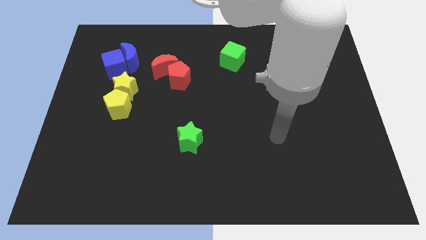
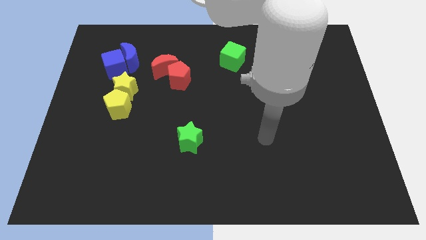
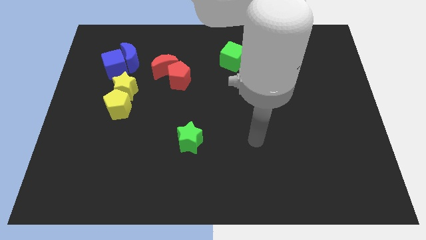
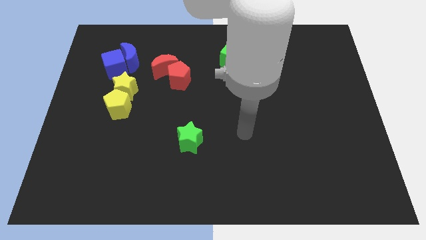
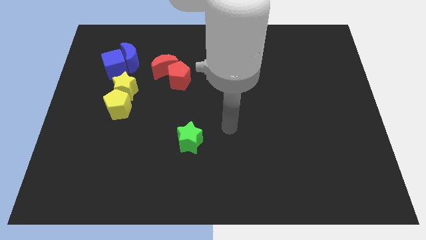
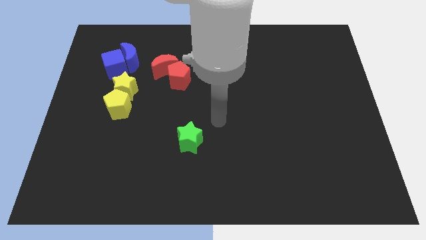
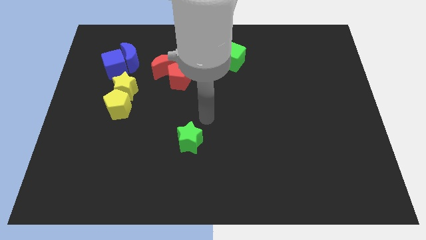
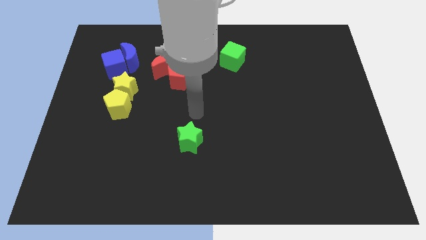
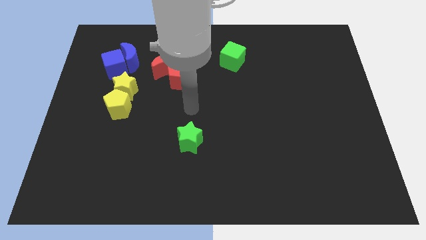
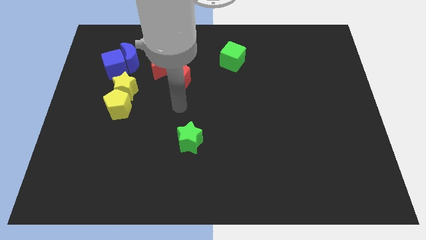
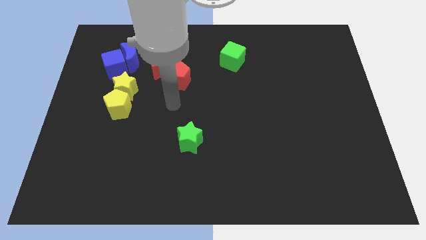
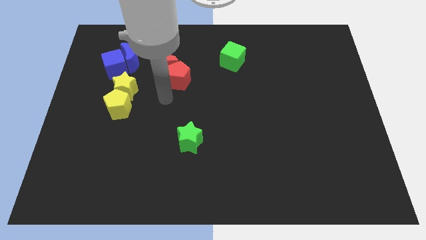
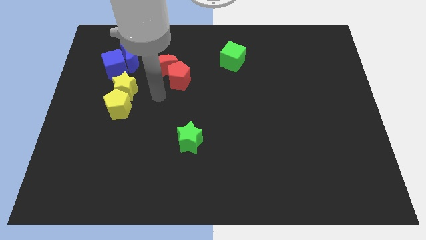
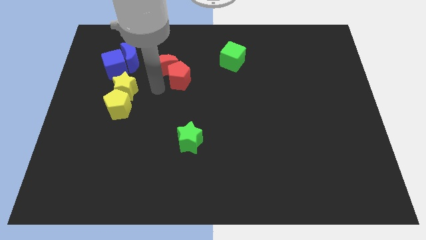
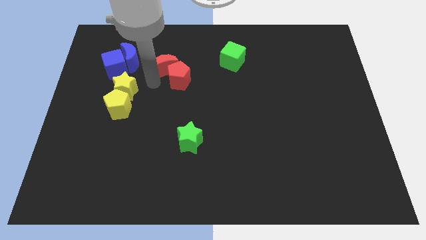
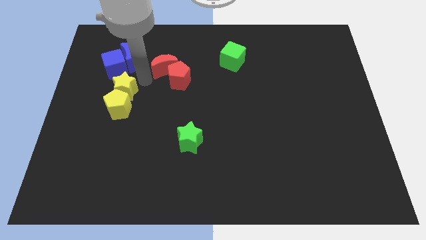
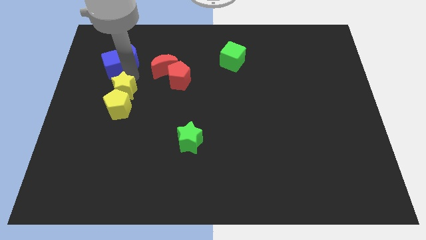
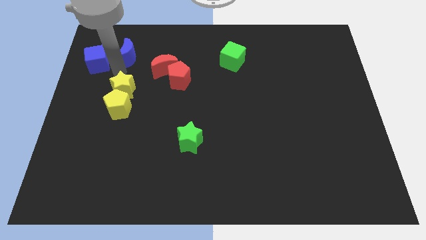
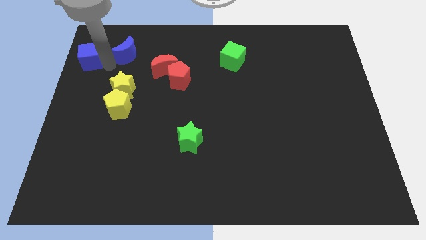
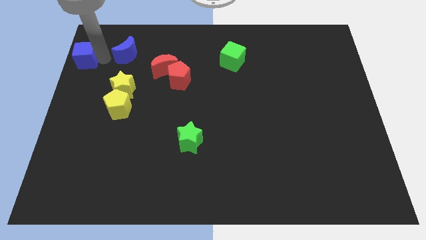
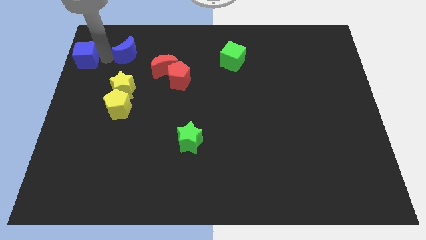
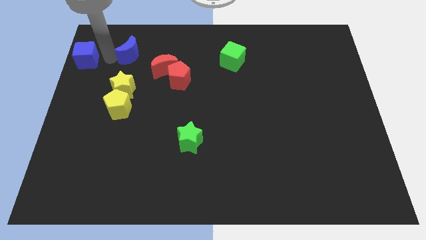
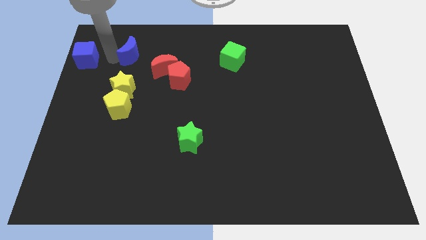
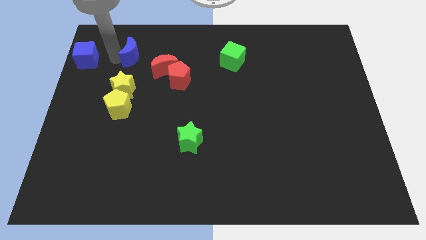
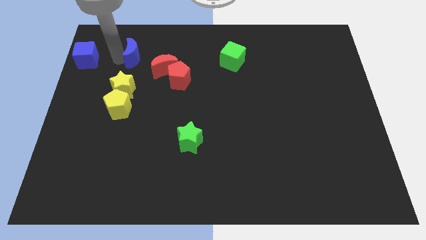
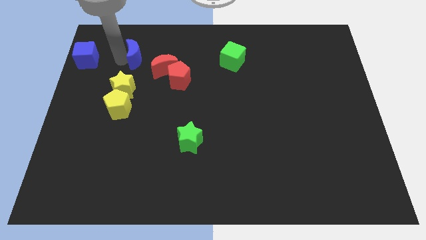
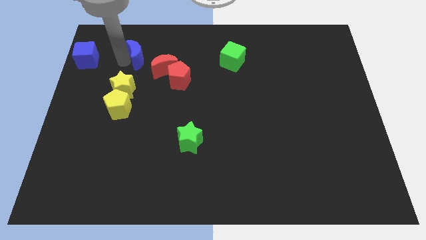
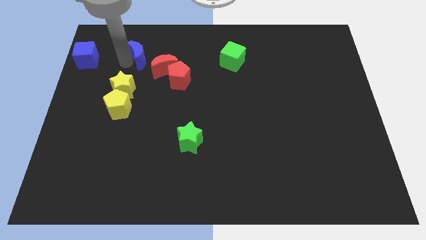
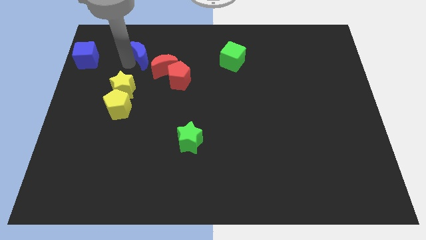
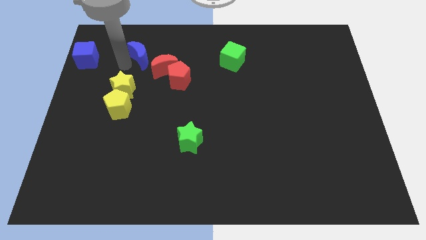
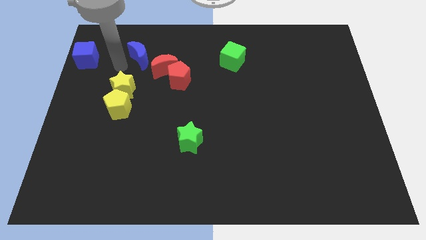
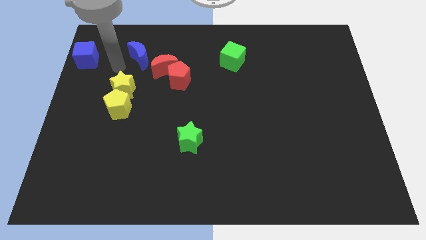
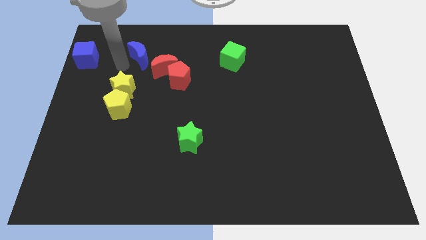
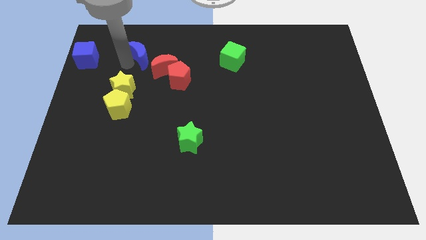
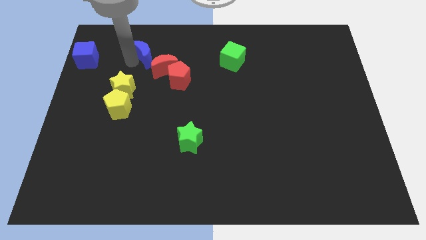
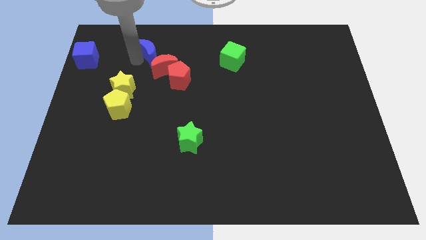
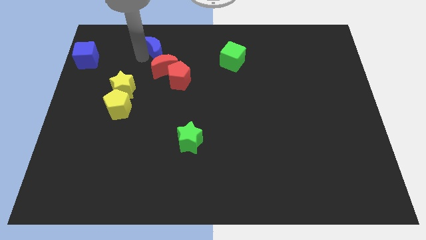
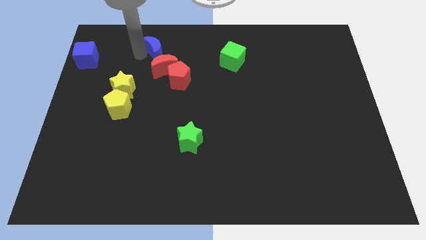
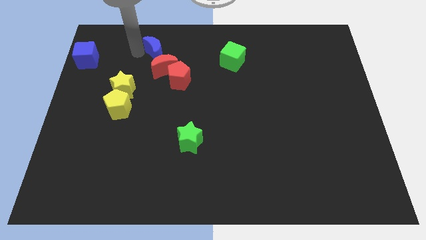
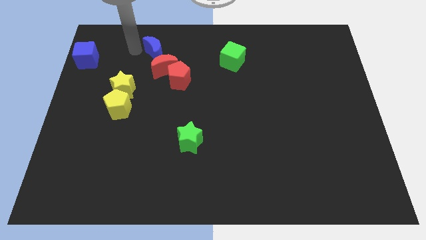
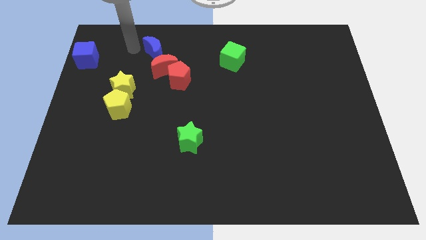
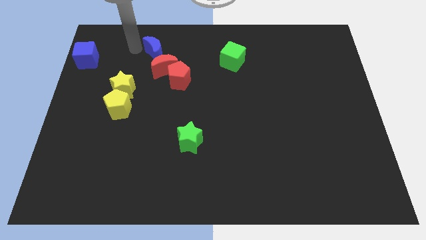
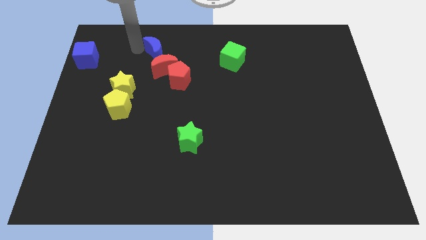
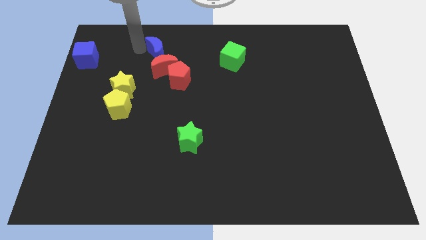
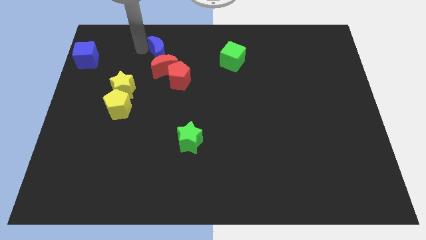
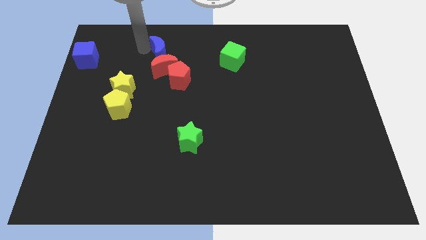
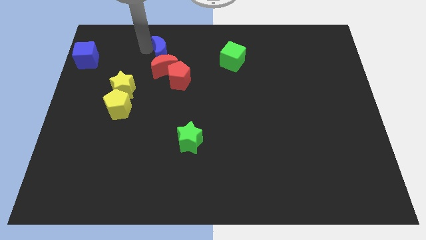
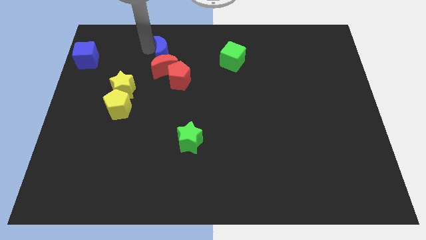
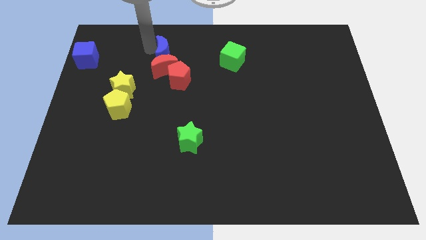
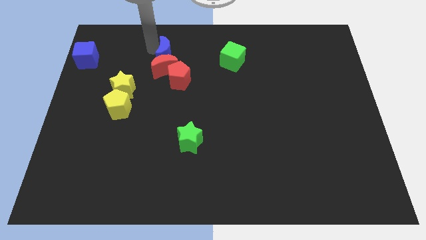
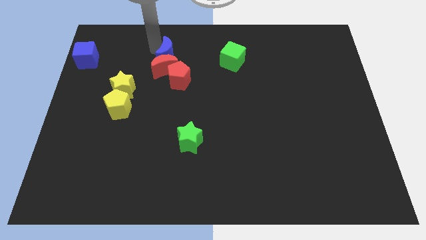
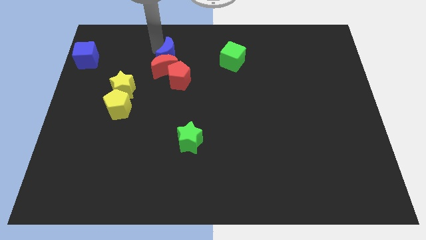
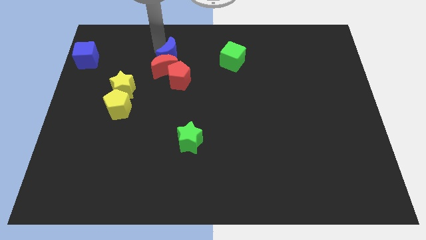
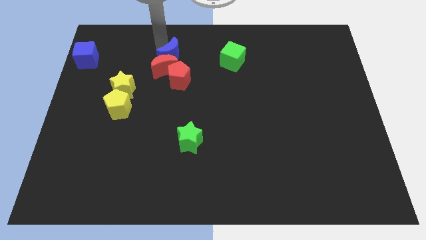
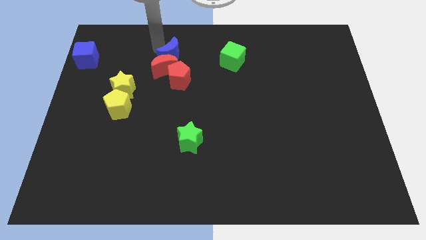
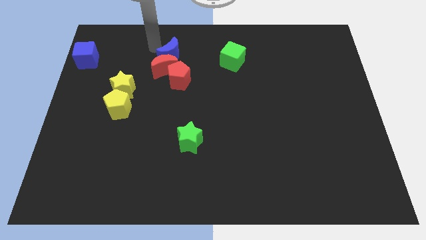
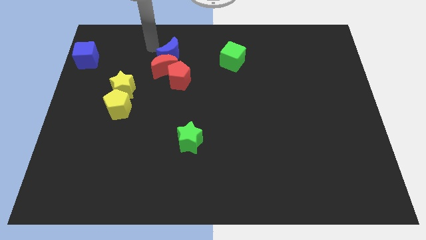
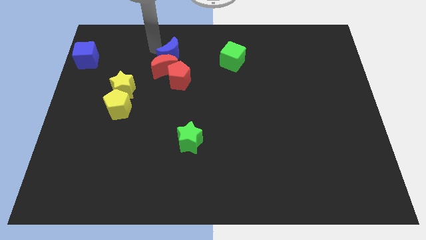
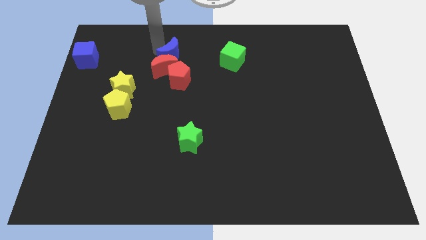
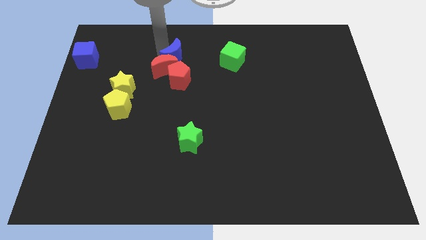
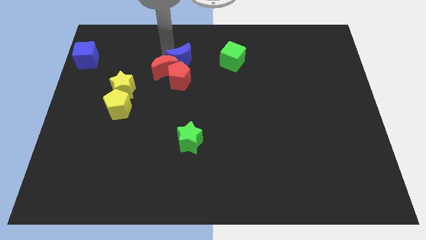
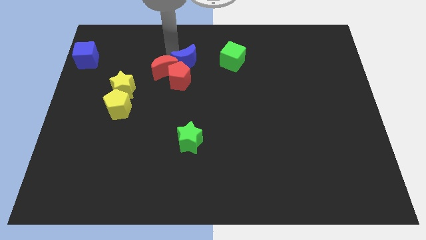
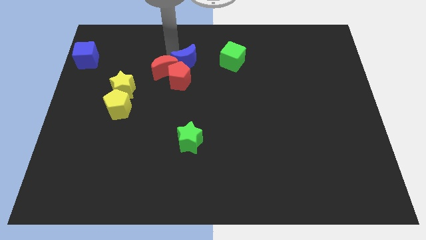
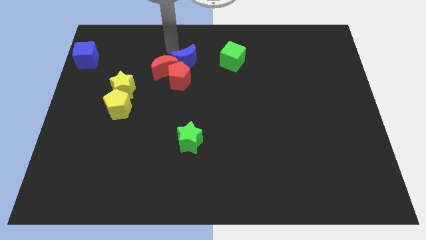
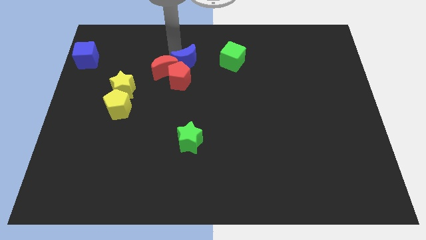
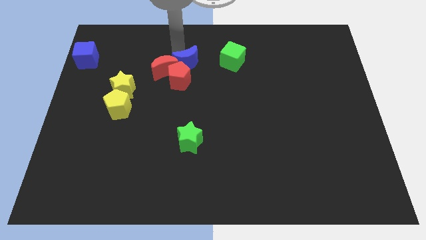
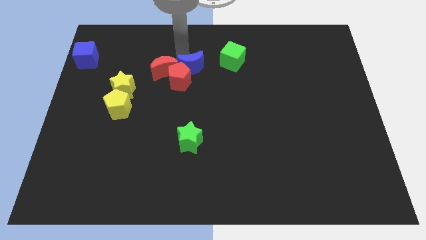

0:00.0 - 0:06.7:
move the blue moon just right of the red pentagon

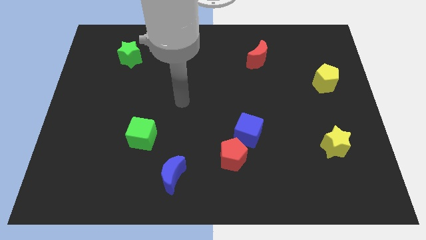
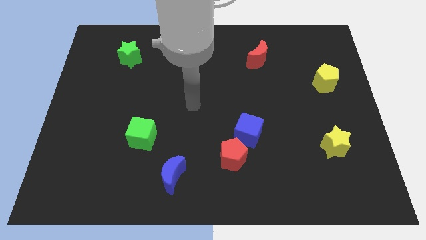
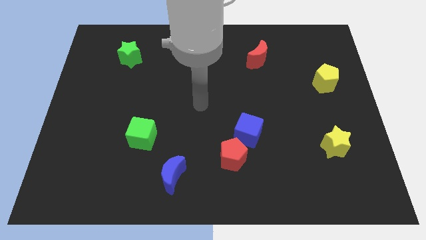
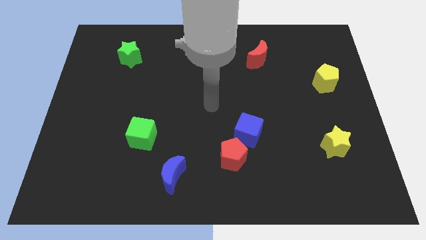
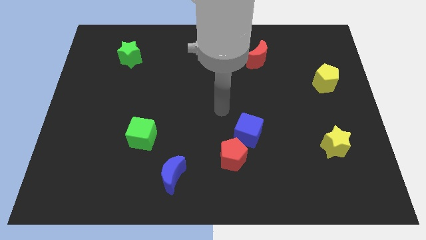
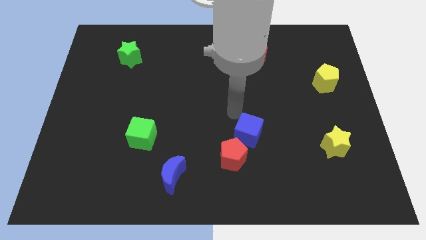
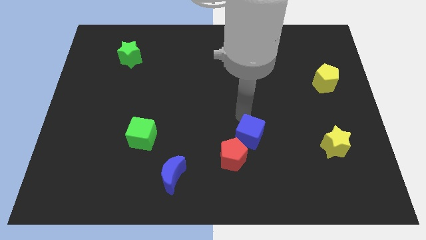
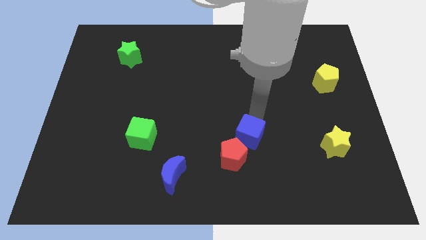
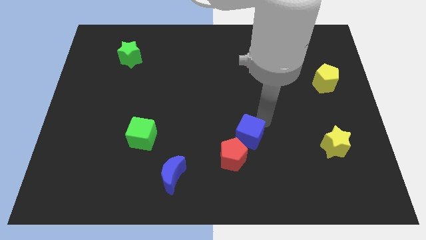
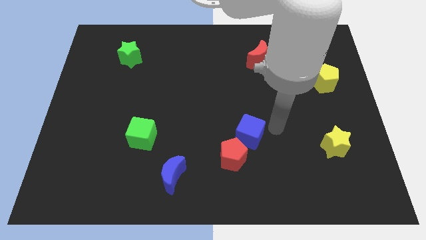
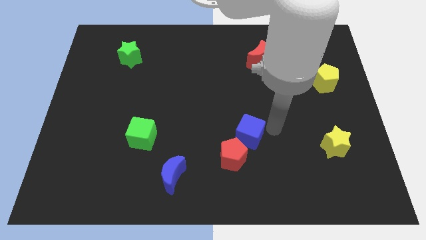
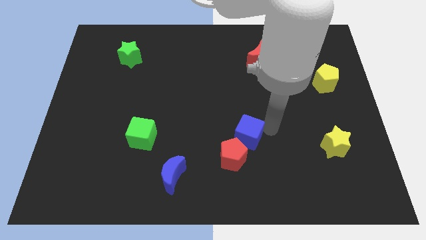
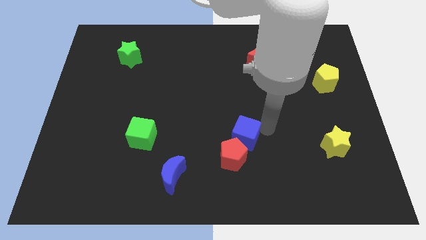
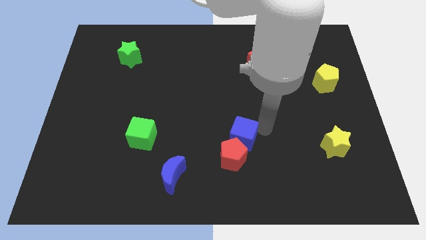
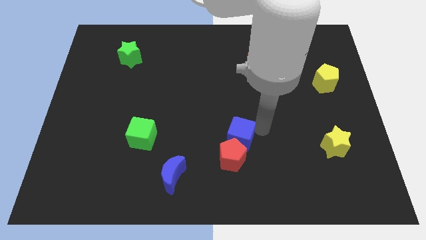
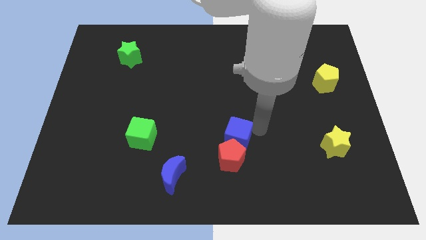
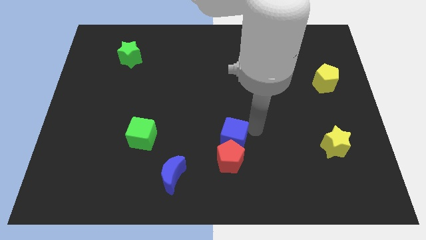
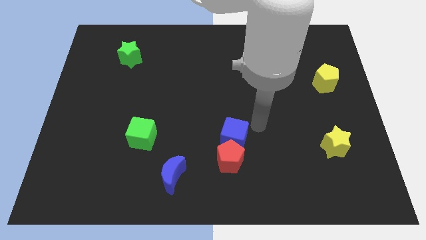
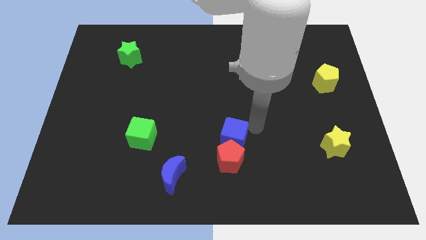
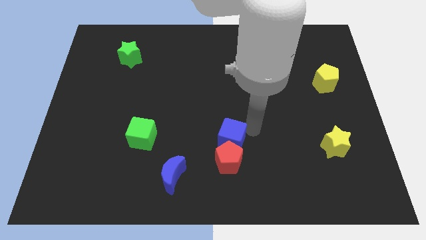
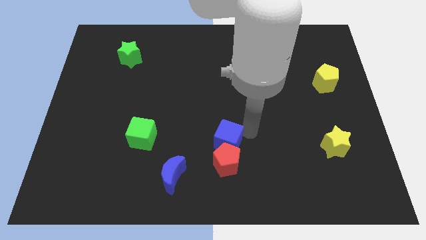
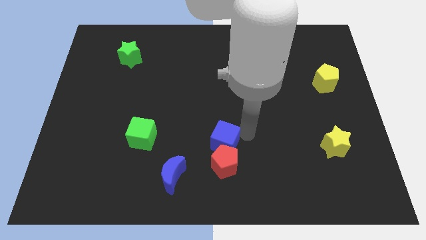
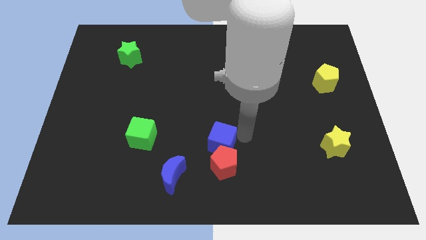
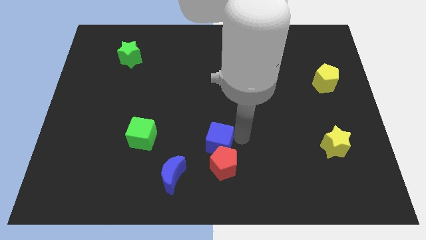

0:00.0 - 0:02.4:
slide the blue cube to the top right side of the blue moon
